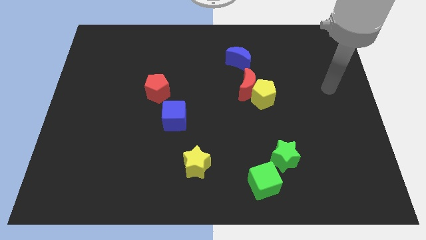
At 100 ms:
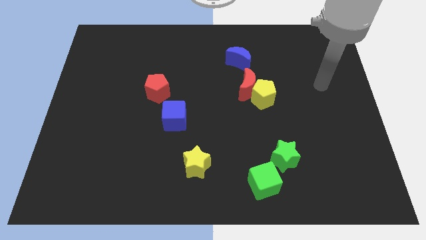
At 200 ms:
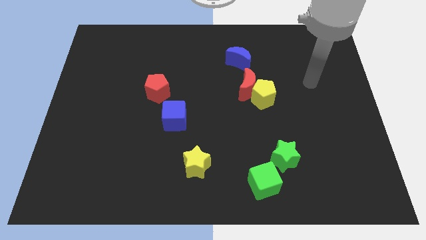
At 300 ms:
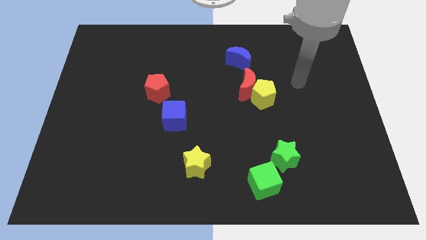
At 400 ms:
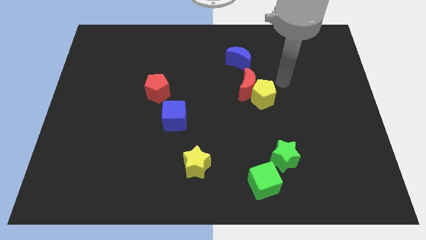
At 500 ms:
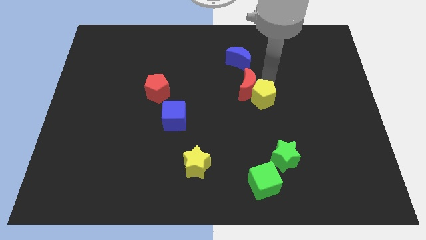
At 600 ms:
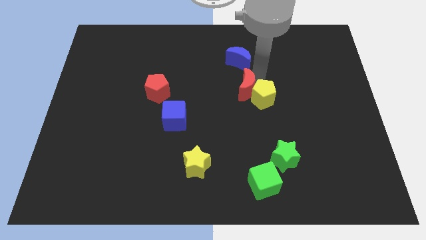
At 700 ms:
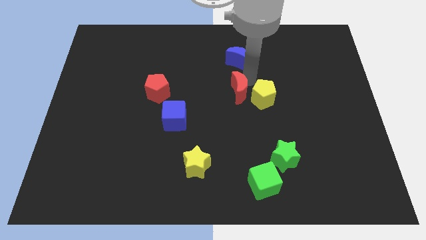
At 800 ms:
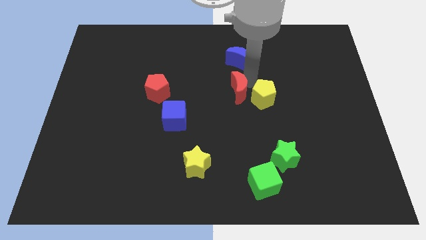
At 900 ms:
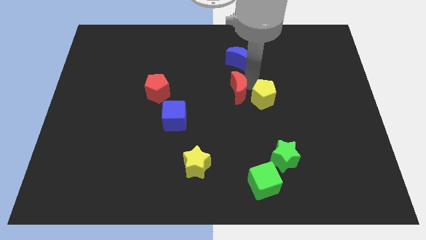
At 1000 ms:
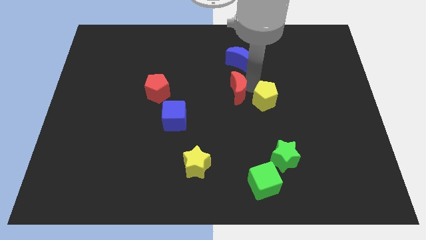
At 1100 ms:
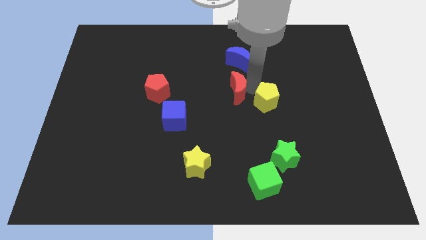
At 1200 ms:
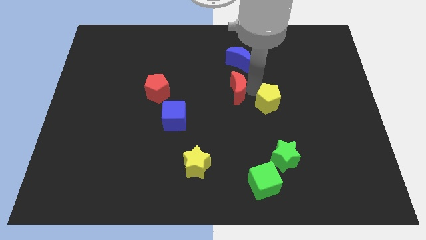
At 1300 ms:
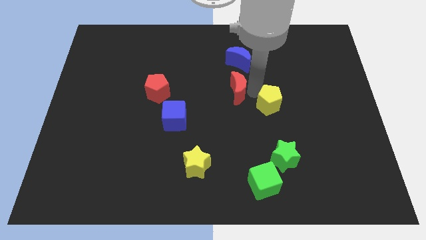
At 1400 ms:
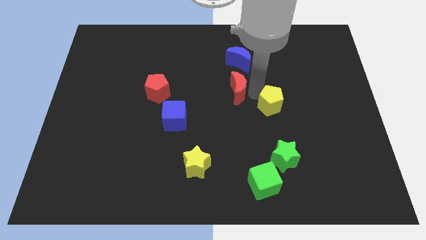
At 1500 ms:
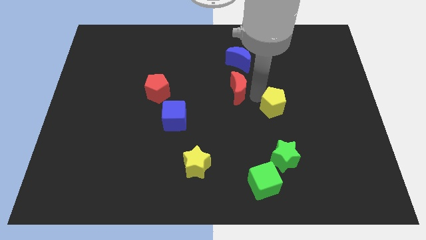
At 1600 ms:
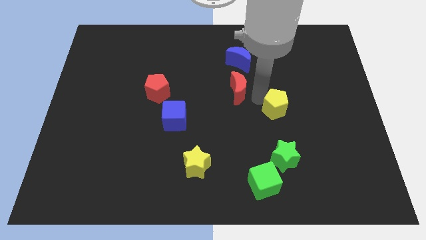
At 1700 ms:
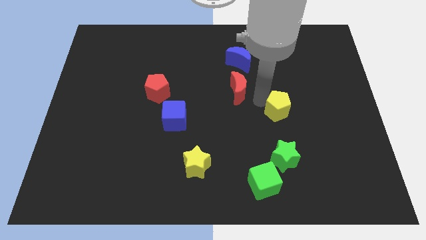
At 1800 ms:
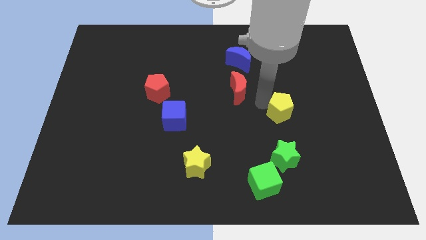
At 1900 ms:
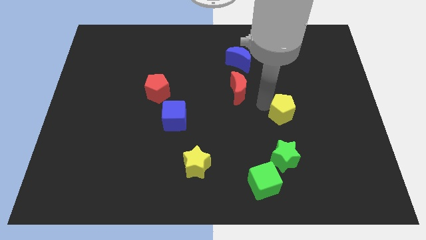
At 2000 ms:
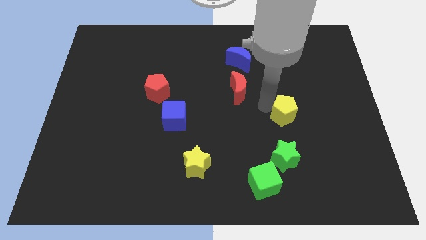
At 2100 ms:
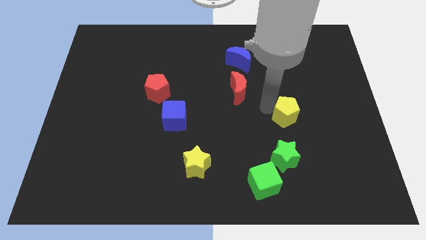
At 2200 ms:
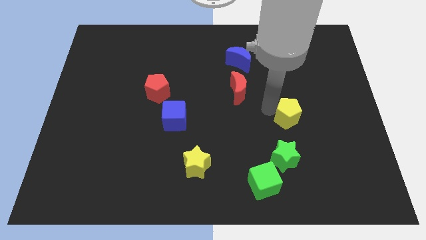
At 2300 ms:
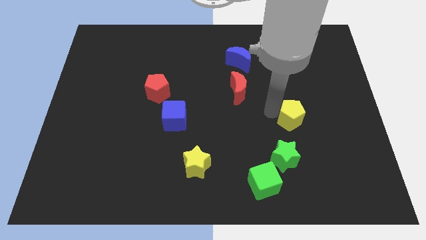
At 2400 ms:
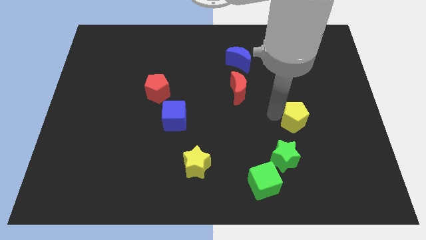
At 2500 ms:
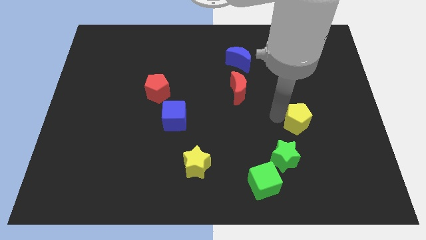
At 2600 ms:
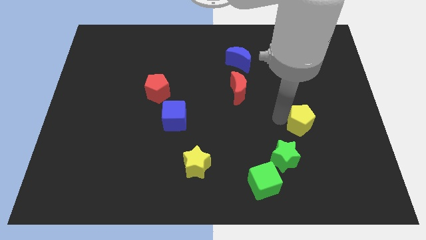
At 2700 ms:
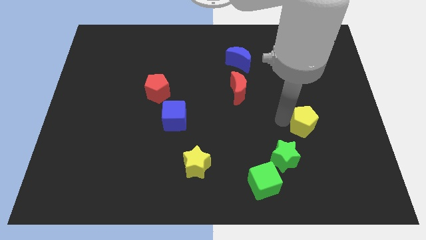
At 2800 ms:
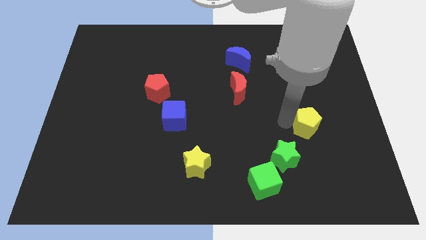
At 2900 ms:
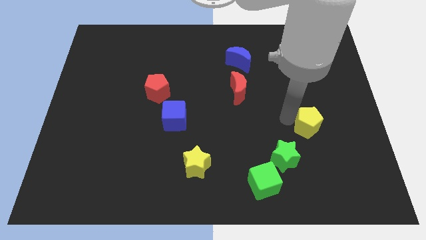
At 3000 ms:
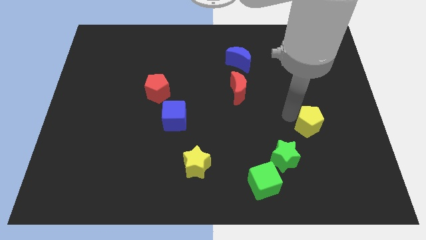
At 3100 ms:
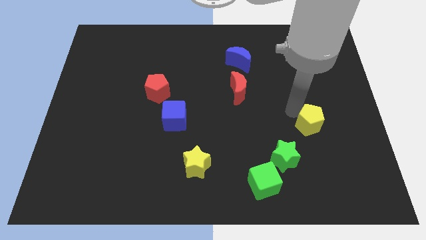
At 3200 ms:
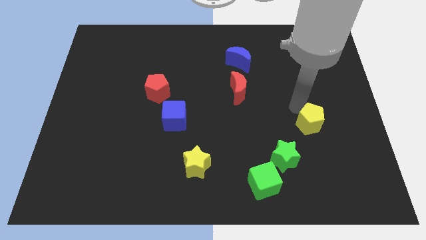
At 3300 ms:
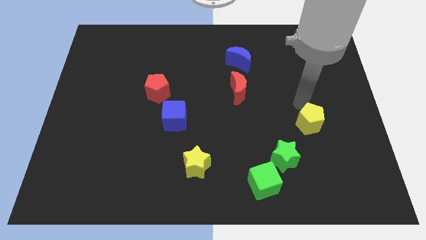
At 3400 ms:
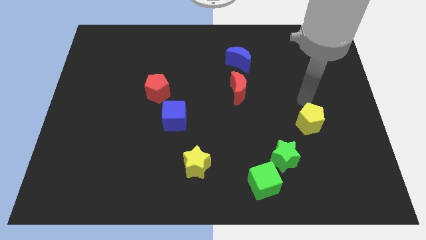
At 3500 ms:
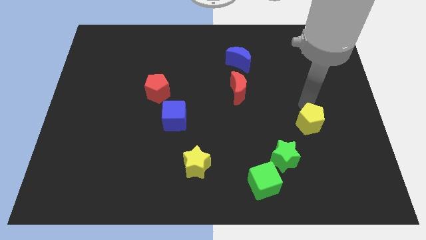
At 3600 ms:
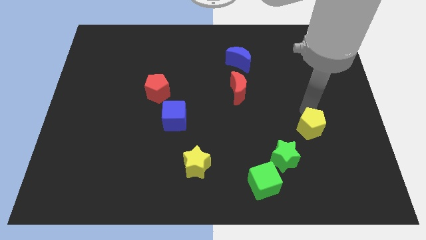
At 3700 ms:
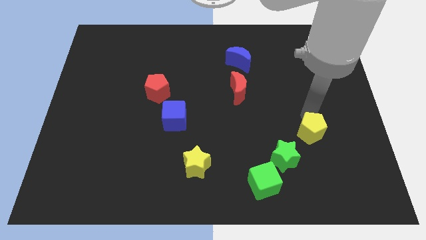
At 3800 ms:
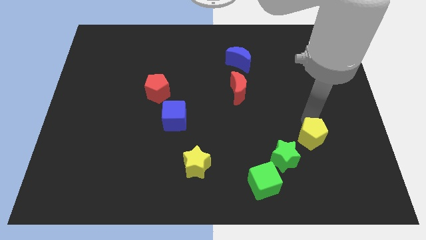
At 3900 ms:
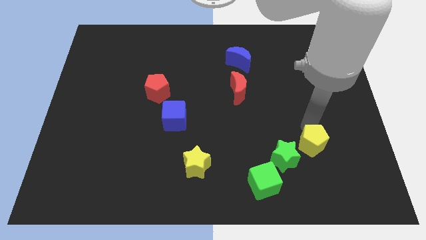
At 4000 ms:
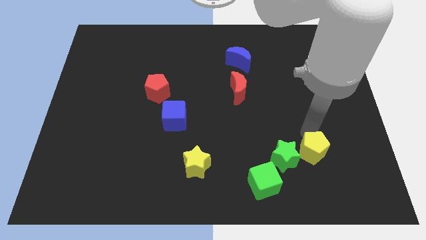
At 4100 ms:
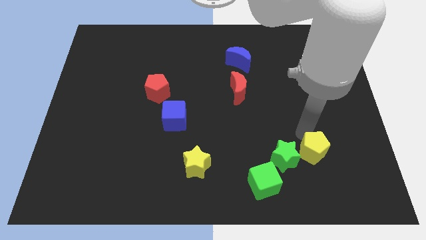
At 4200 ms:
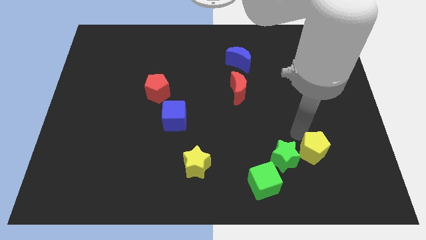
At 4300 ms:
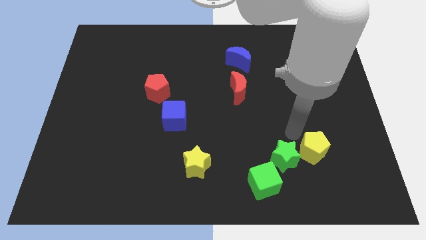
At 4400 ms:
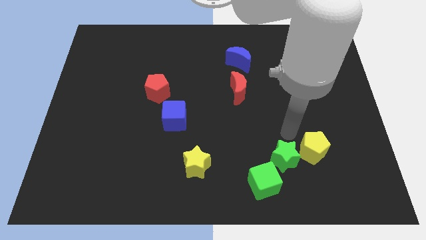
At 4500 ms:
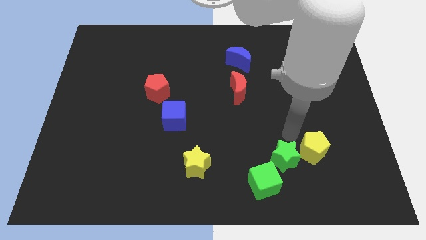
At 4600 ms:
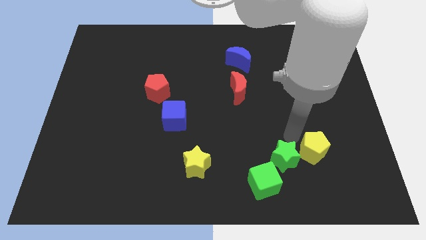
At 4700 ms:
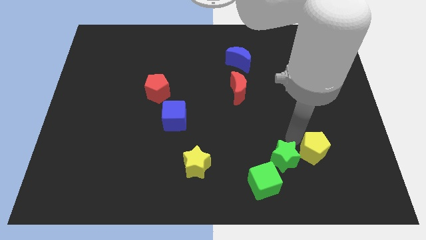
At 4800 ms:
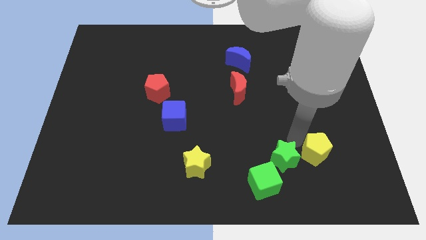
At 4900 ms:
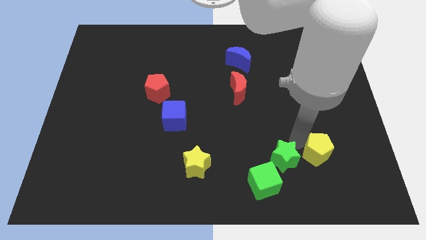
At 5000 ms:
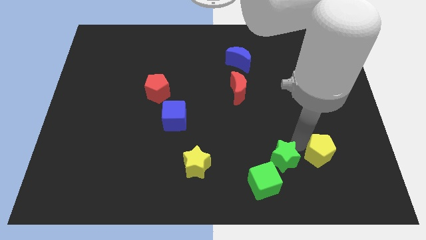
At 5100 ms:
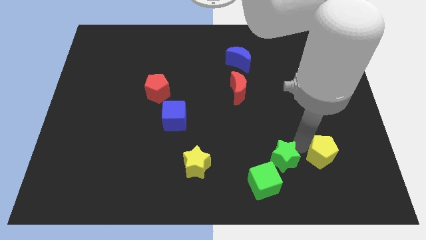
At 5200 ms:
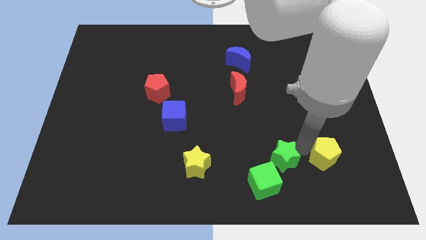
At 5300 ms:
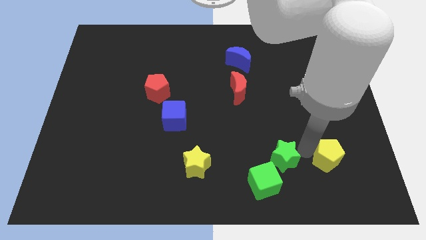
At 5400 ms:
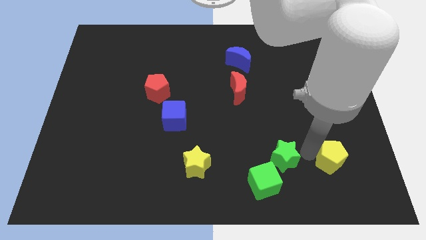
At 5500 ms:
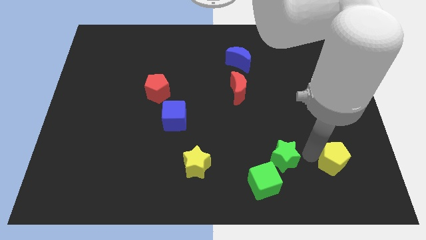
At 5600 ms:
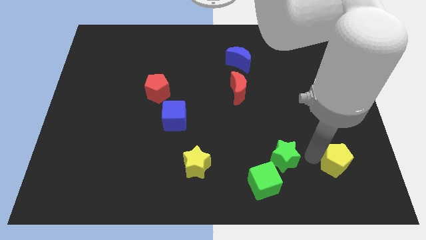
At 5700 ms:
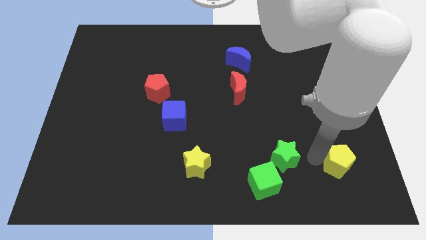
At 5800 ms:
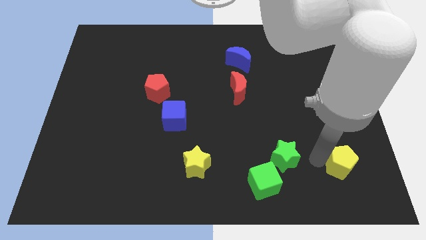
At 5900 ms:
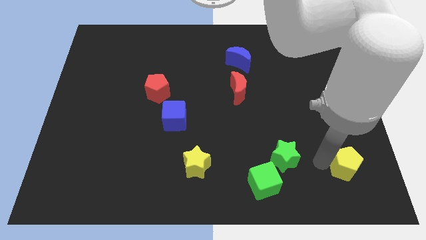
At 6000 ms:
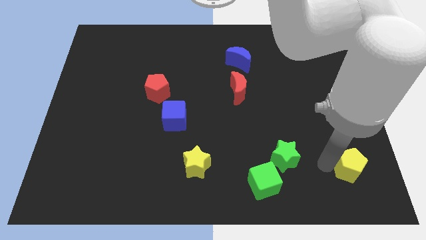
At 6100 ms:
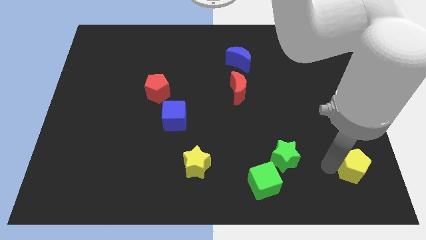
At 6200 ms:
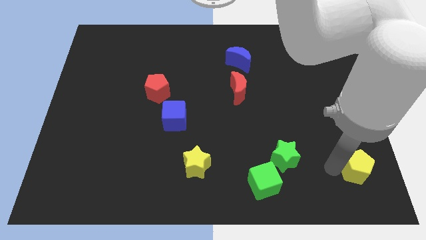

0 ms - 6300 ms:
push the yellow pentagon to the lower right corner

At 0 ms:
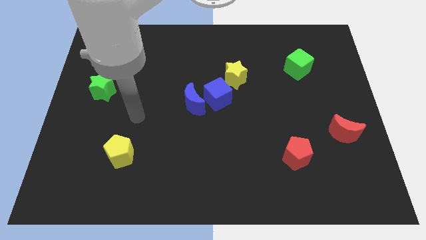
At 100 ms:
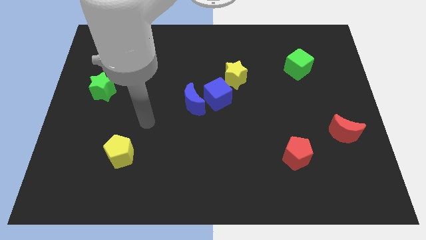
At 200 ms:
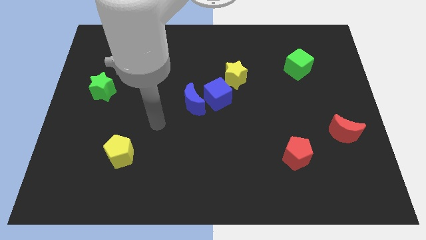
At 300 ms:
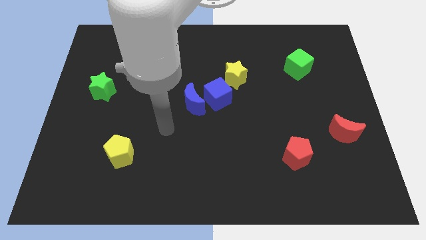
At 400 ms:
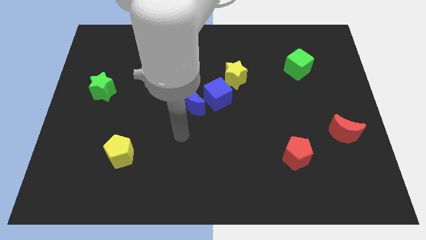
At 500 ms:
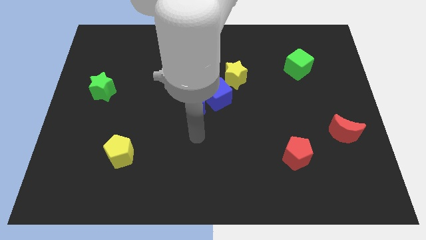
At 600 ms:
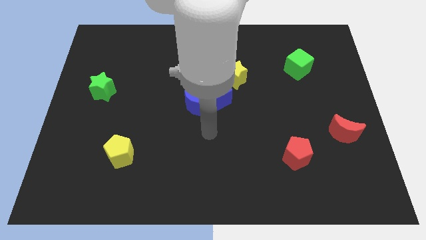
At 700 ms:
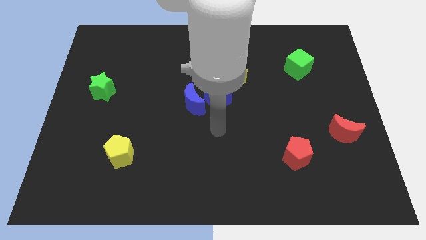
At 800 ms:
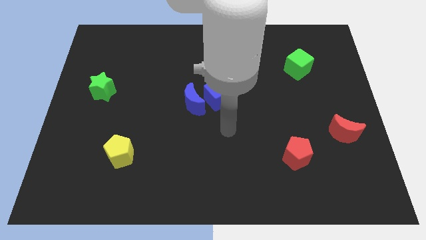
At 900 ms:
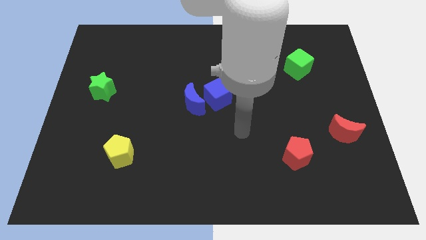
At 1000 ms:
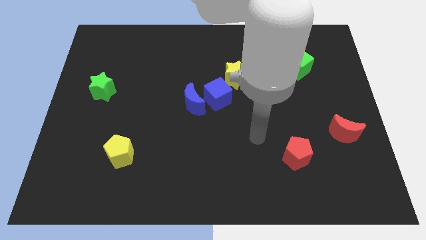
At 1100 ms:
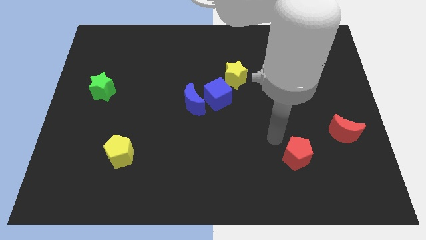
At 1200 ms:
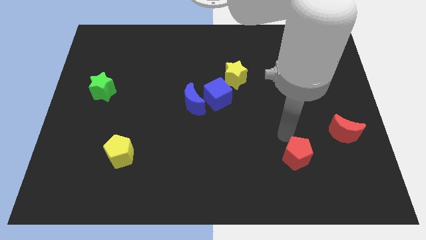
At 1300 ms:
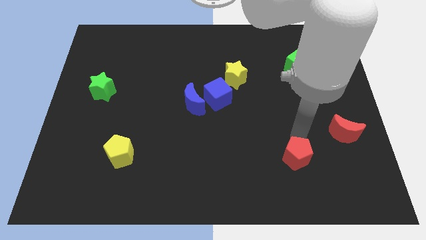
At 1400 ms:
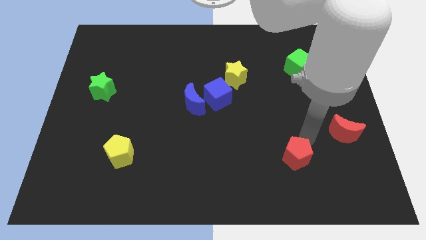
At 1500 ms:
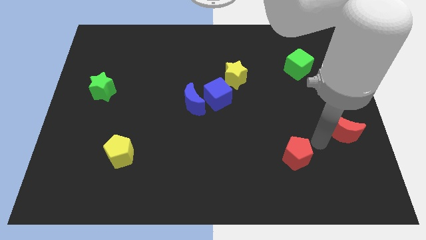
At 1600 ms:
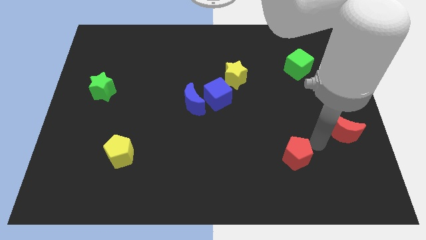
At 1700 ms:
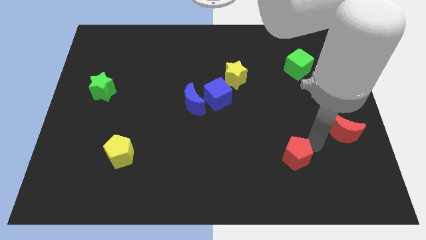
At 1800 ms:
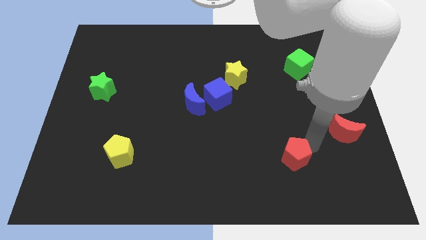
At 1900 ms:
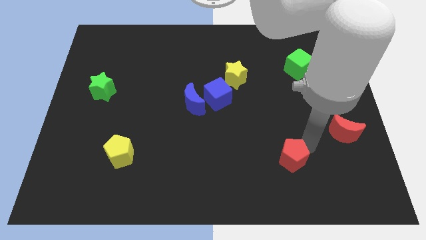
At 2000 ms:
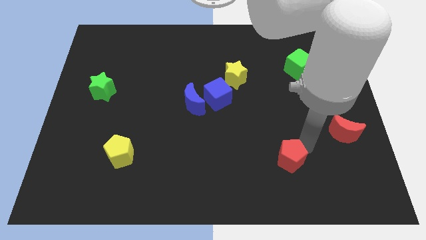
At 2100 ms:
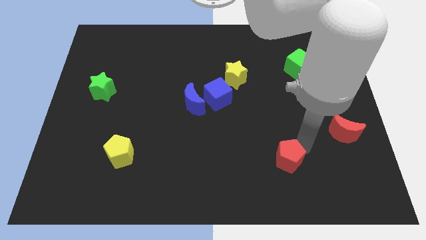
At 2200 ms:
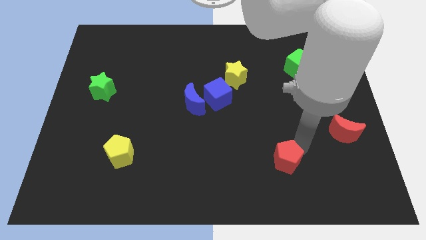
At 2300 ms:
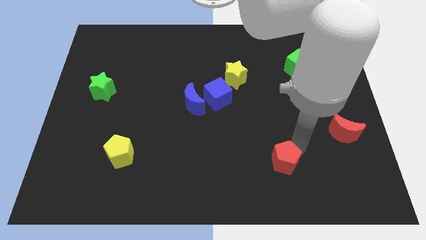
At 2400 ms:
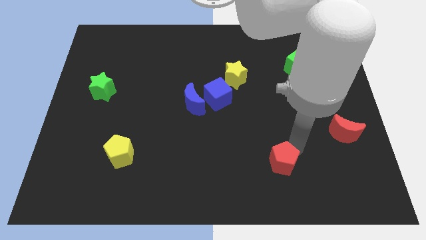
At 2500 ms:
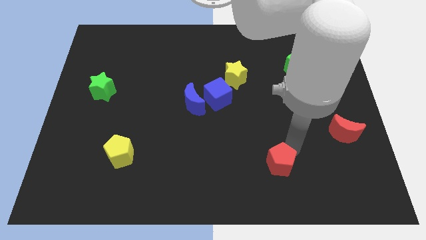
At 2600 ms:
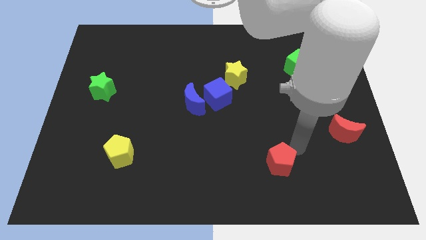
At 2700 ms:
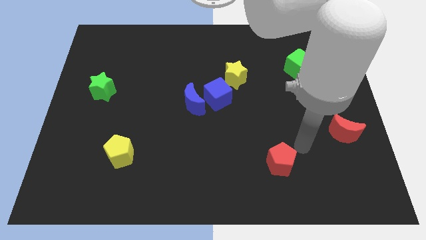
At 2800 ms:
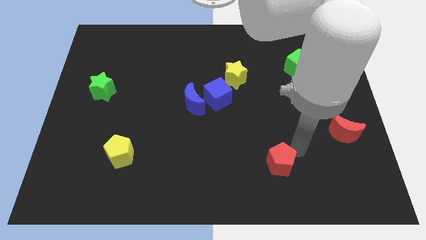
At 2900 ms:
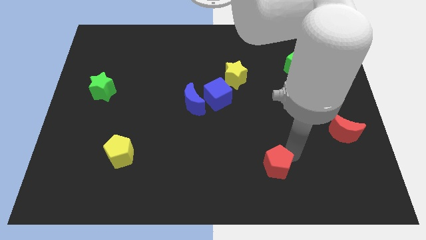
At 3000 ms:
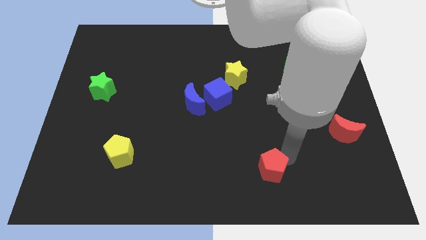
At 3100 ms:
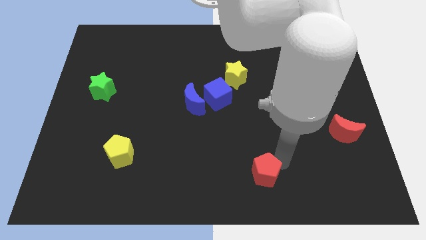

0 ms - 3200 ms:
slide the red pentagon to the bottom
